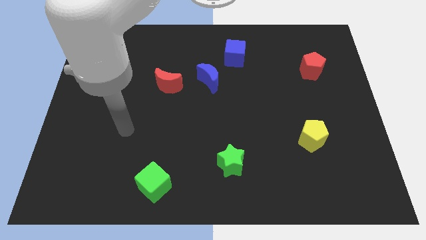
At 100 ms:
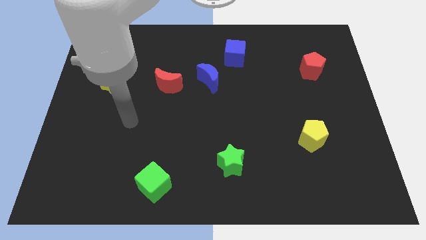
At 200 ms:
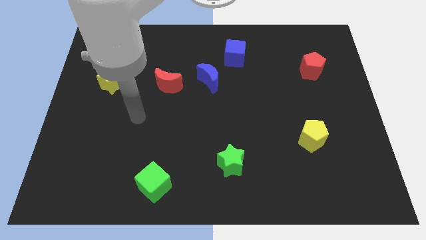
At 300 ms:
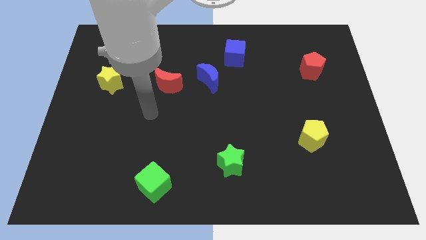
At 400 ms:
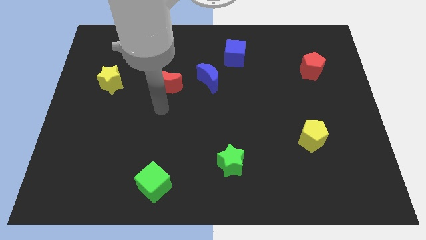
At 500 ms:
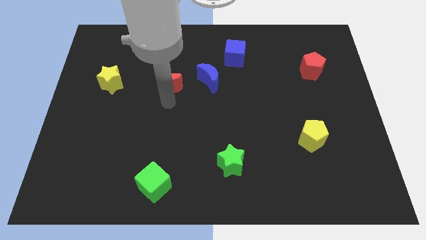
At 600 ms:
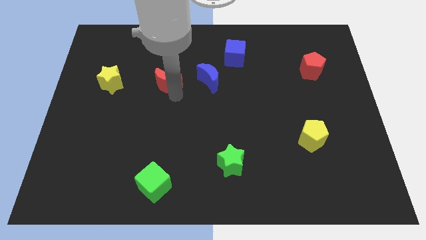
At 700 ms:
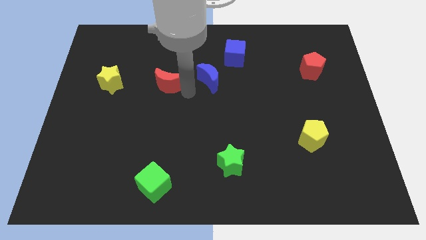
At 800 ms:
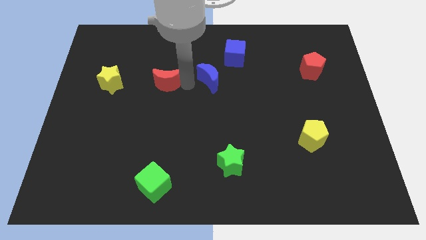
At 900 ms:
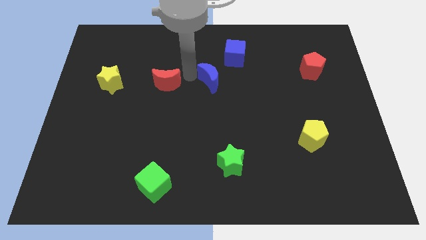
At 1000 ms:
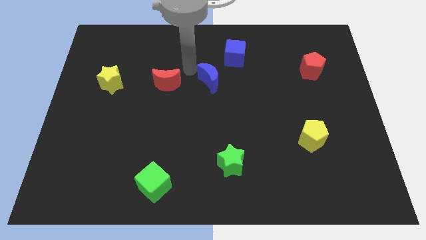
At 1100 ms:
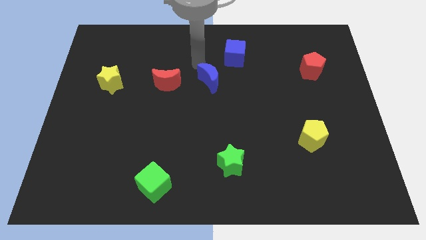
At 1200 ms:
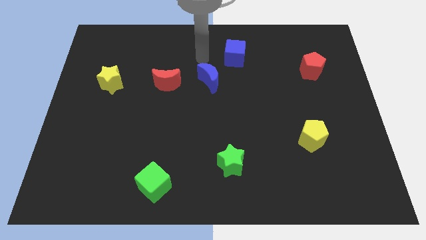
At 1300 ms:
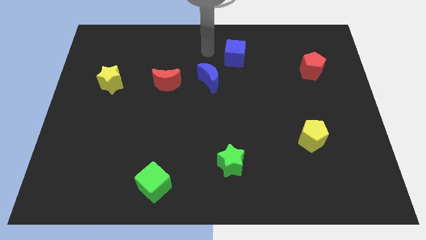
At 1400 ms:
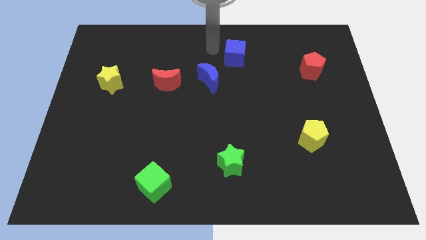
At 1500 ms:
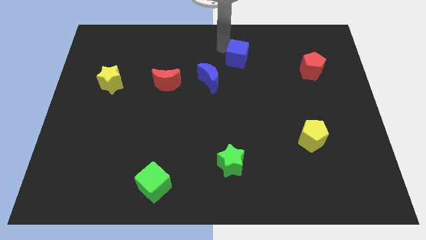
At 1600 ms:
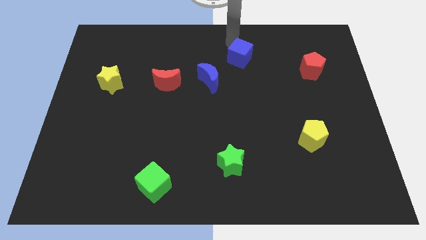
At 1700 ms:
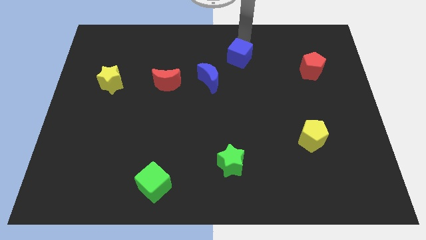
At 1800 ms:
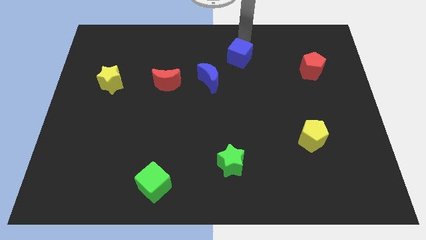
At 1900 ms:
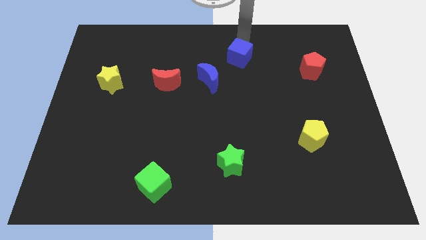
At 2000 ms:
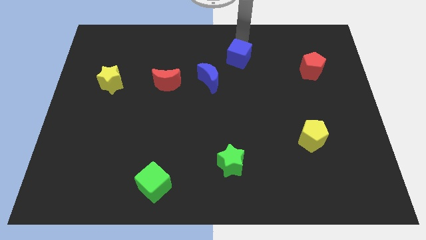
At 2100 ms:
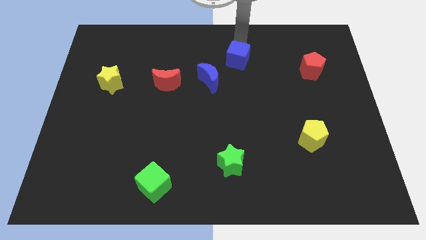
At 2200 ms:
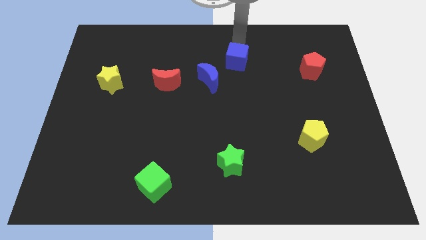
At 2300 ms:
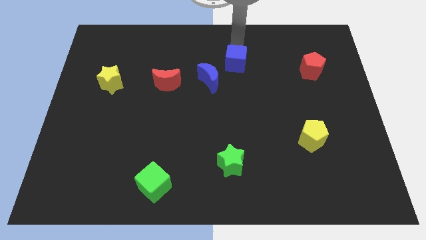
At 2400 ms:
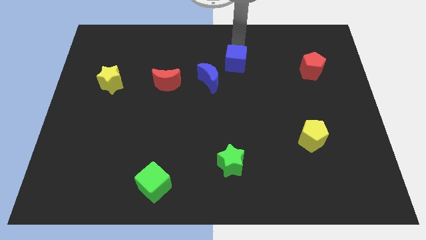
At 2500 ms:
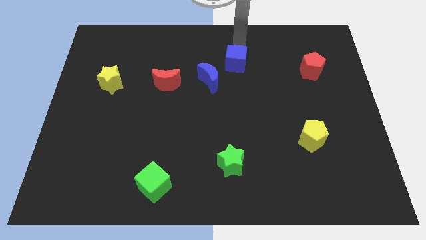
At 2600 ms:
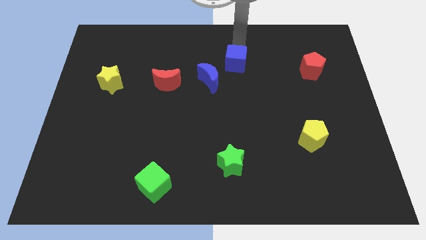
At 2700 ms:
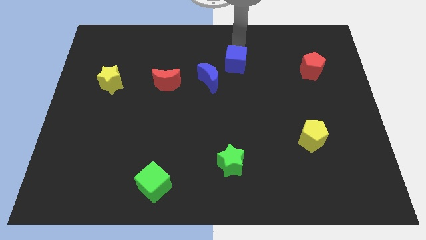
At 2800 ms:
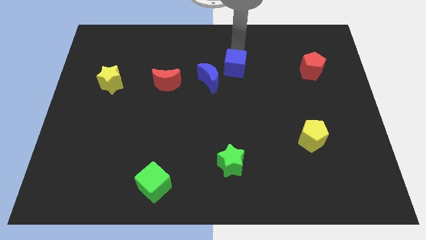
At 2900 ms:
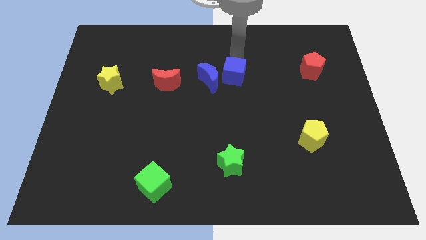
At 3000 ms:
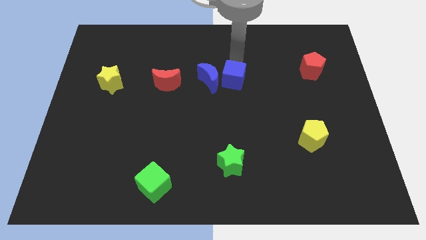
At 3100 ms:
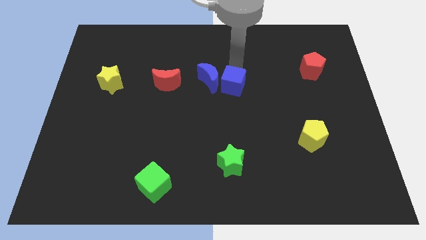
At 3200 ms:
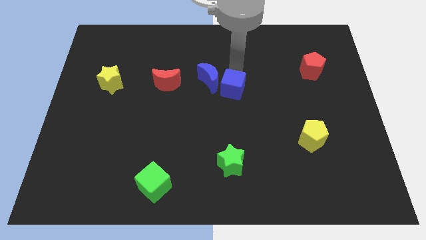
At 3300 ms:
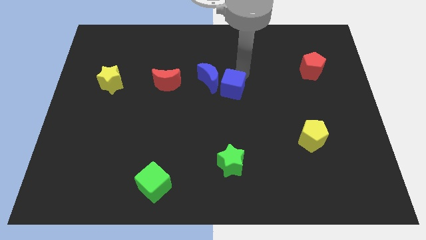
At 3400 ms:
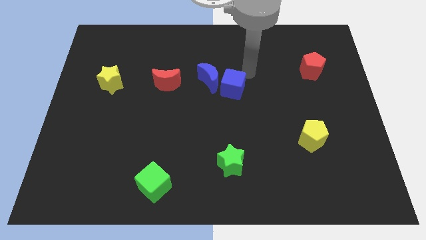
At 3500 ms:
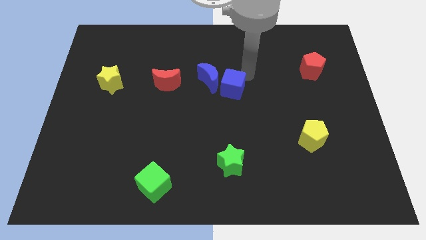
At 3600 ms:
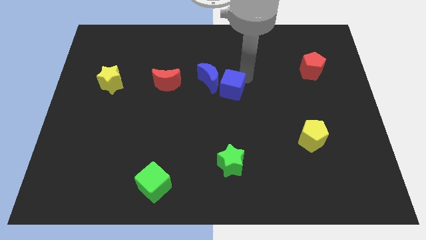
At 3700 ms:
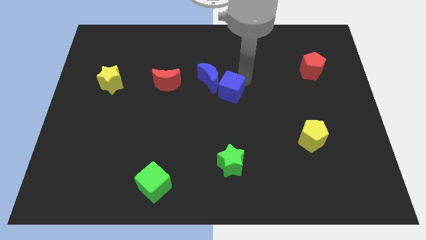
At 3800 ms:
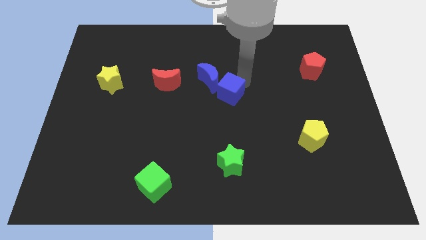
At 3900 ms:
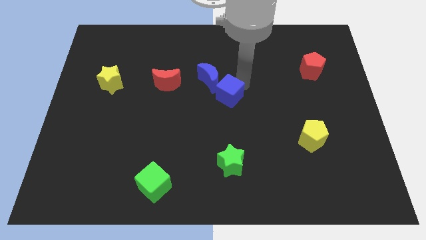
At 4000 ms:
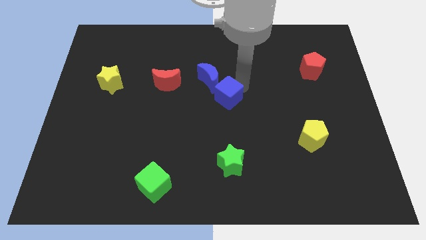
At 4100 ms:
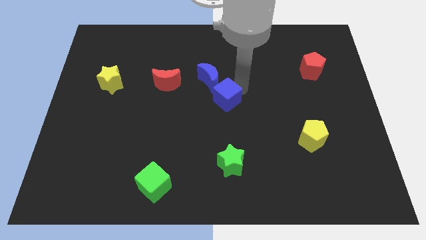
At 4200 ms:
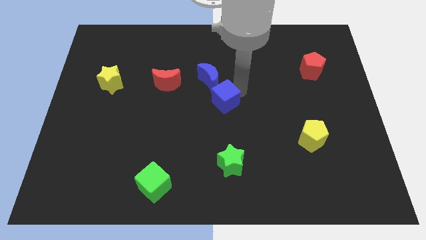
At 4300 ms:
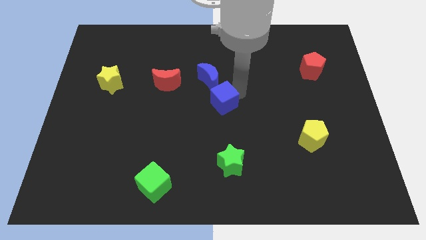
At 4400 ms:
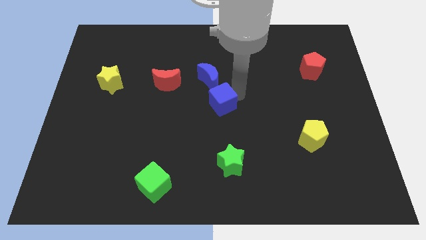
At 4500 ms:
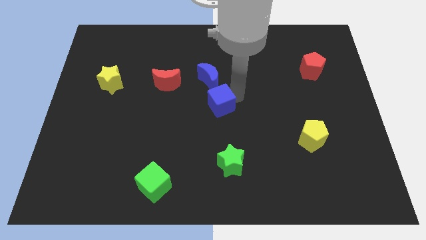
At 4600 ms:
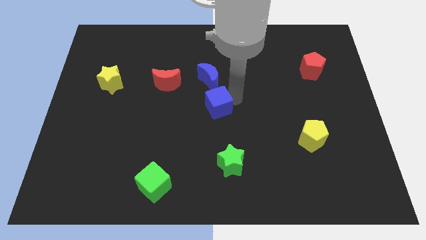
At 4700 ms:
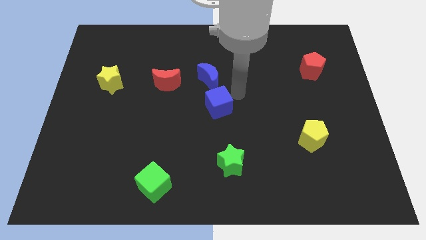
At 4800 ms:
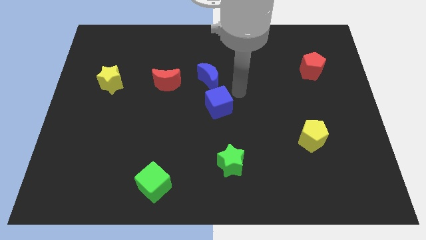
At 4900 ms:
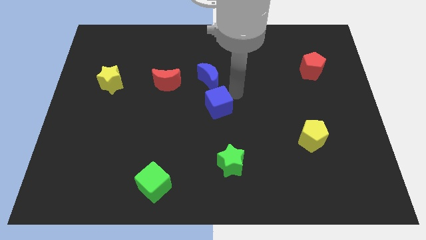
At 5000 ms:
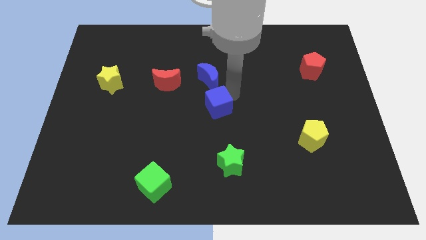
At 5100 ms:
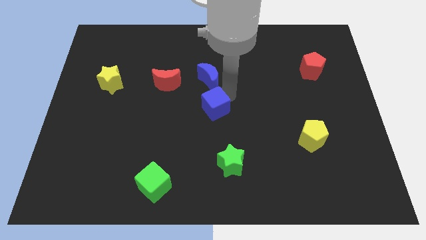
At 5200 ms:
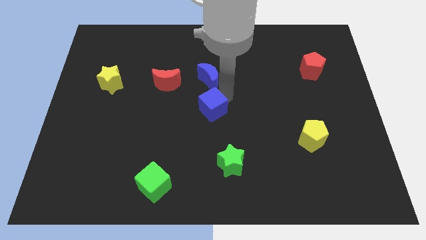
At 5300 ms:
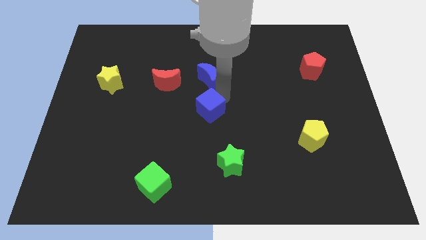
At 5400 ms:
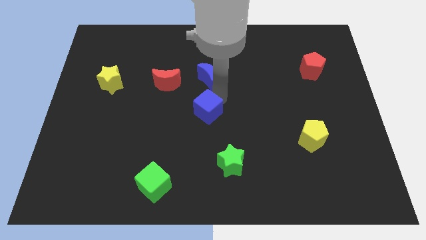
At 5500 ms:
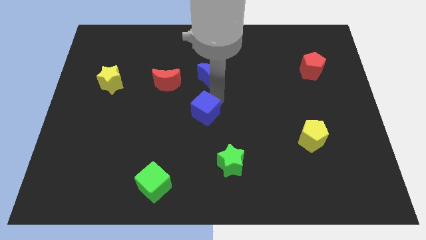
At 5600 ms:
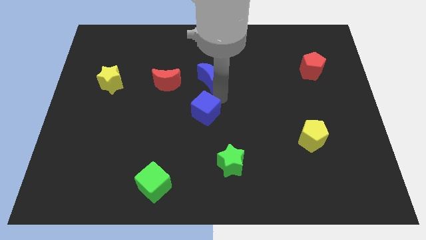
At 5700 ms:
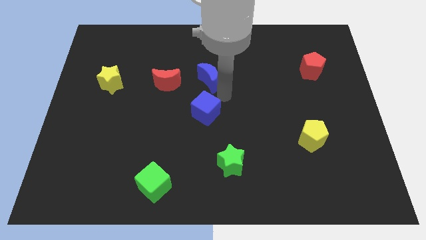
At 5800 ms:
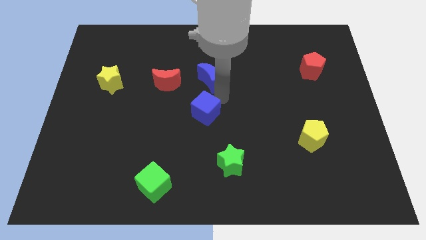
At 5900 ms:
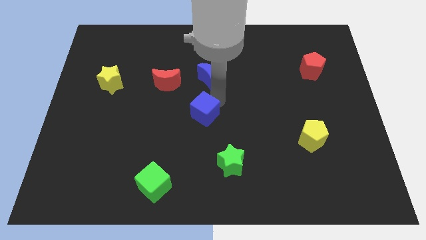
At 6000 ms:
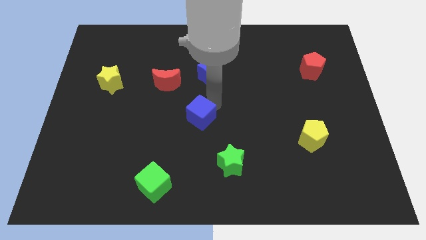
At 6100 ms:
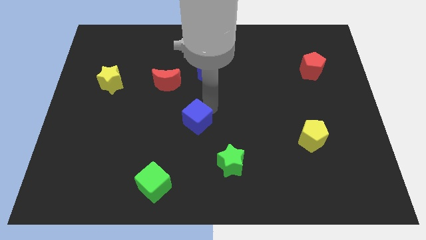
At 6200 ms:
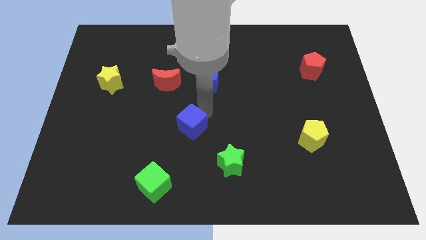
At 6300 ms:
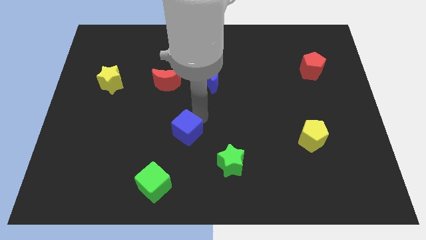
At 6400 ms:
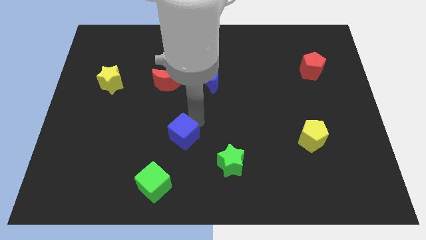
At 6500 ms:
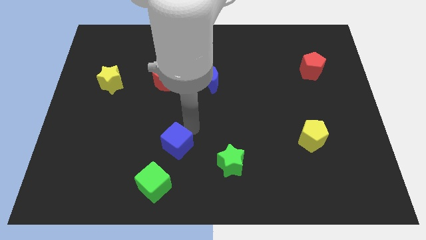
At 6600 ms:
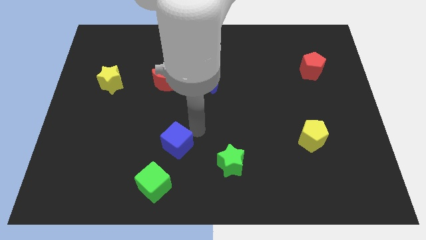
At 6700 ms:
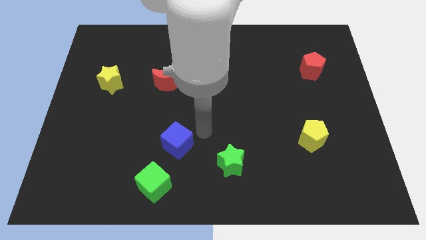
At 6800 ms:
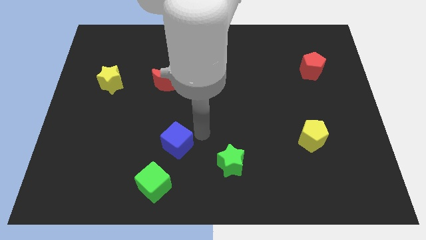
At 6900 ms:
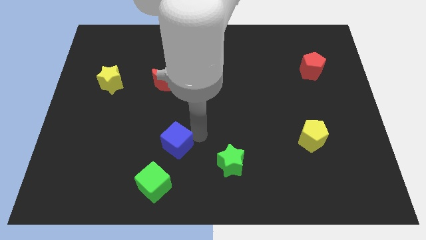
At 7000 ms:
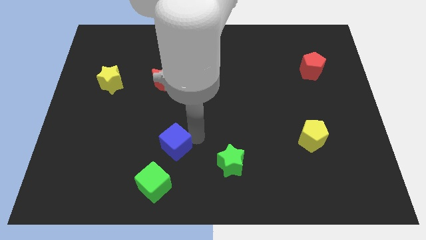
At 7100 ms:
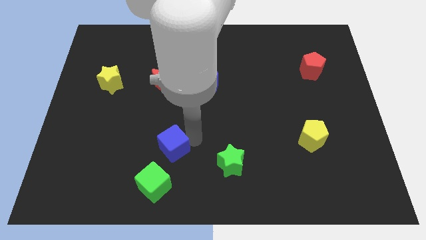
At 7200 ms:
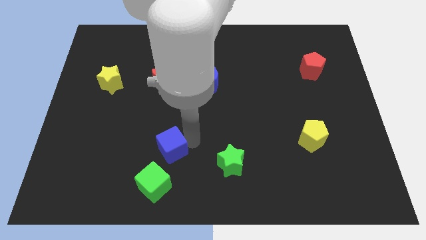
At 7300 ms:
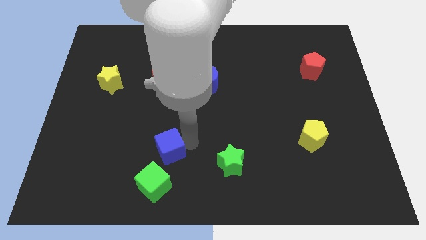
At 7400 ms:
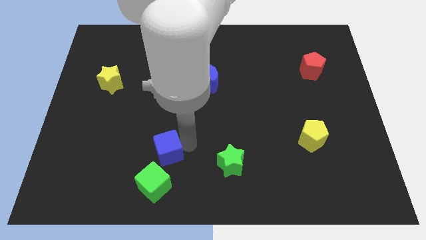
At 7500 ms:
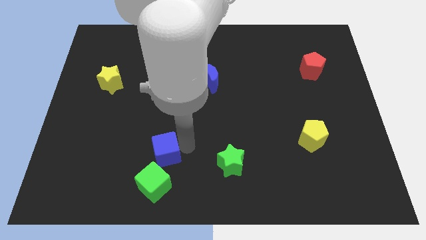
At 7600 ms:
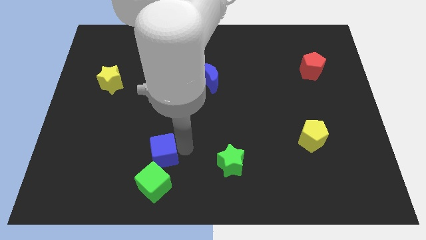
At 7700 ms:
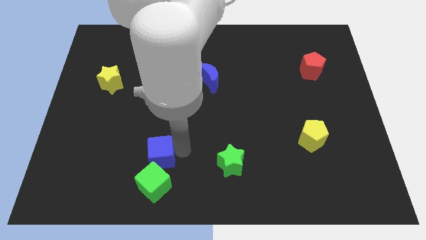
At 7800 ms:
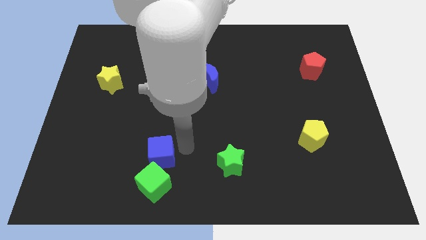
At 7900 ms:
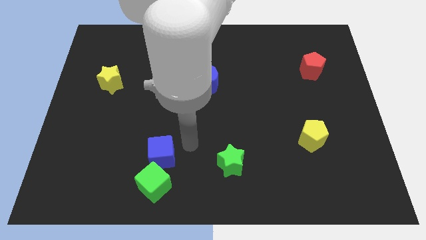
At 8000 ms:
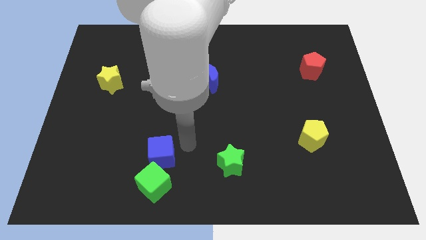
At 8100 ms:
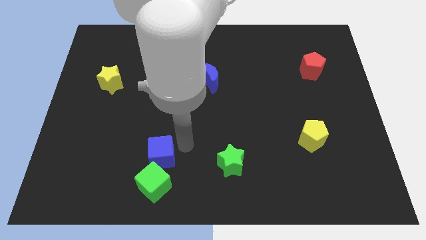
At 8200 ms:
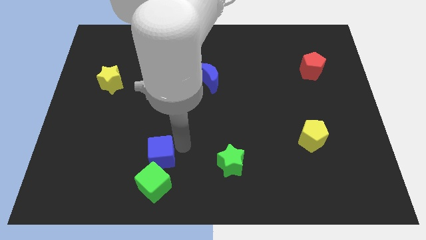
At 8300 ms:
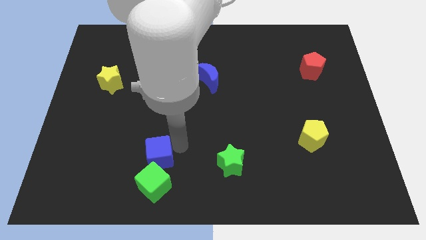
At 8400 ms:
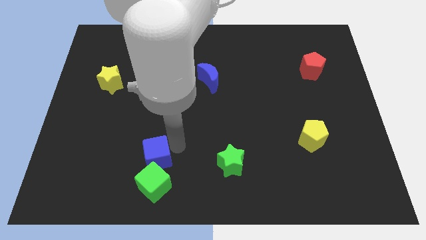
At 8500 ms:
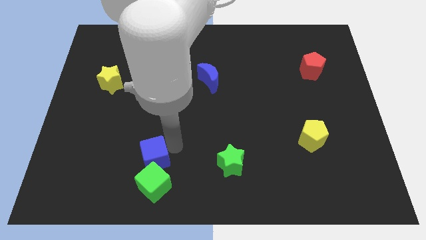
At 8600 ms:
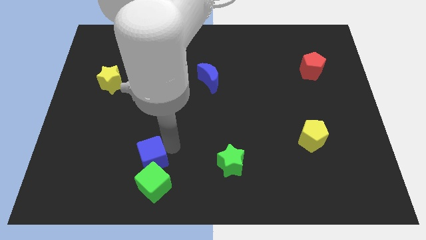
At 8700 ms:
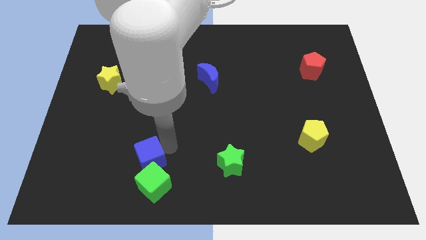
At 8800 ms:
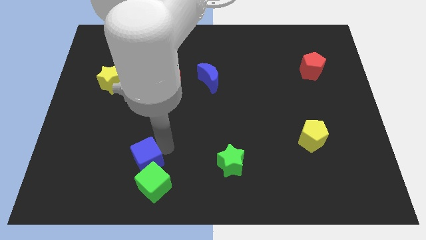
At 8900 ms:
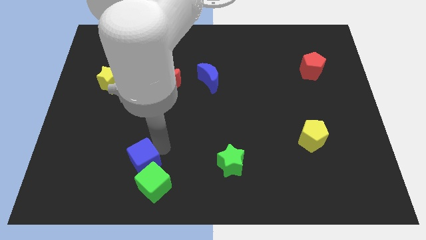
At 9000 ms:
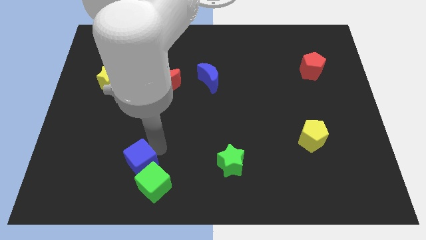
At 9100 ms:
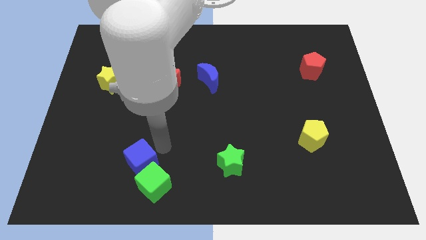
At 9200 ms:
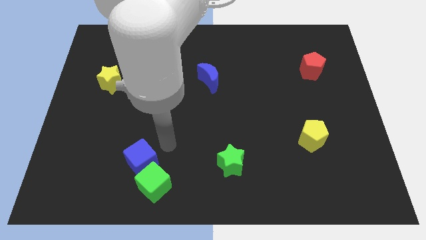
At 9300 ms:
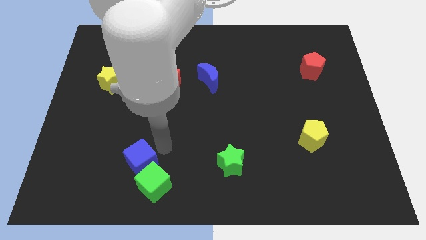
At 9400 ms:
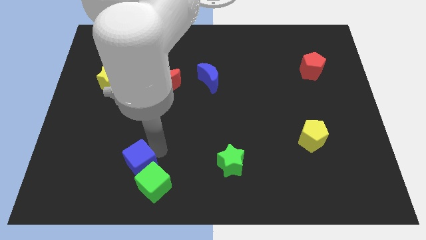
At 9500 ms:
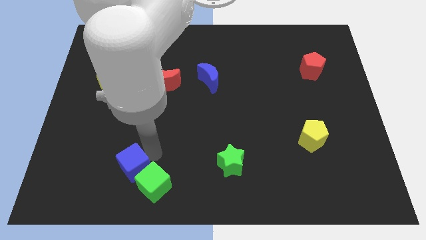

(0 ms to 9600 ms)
move the blue cube left of the green cube
